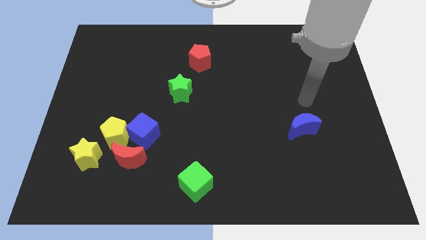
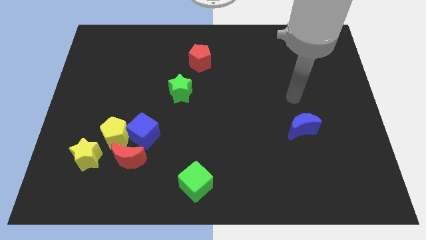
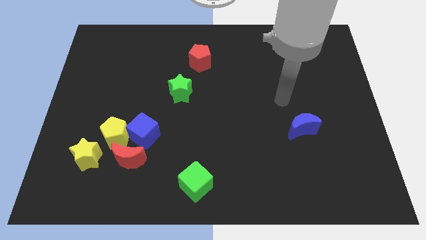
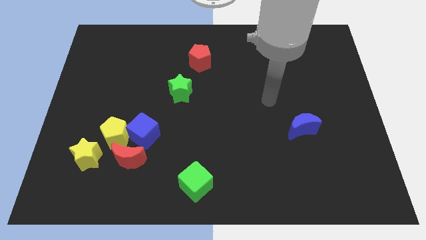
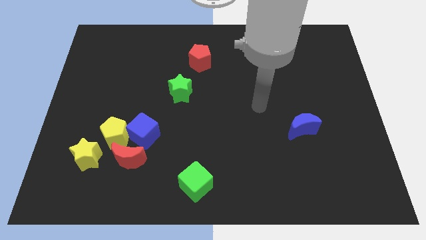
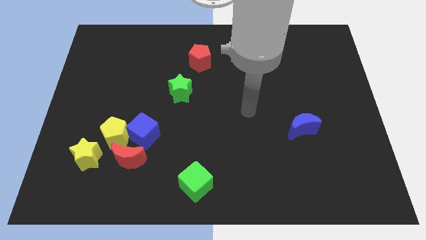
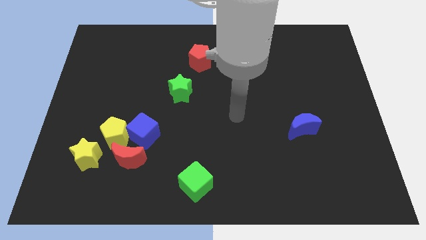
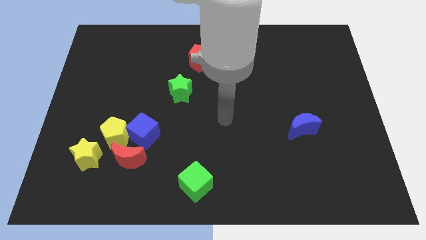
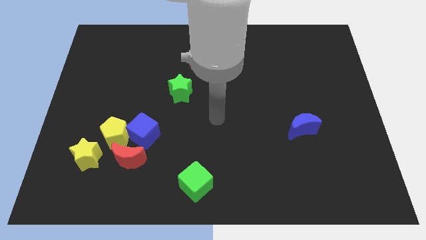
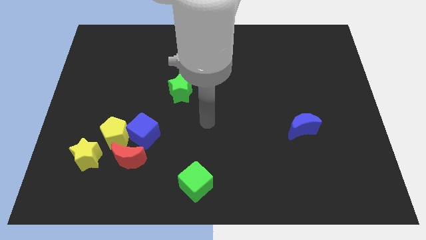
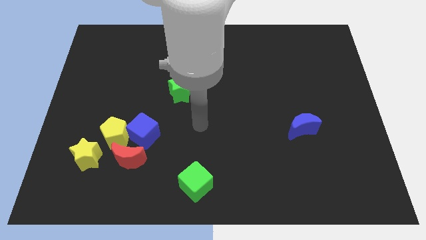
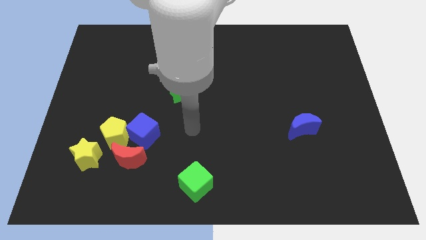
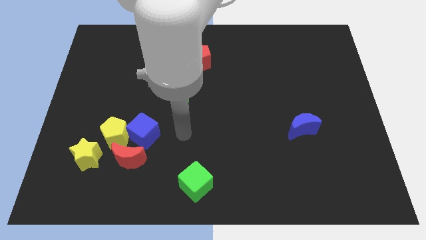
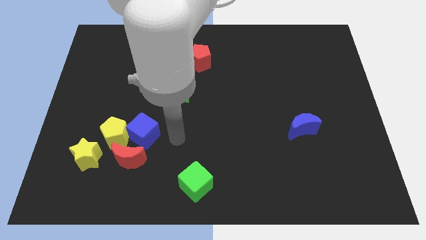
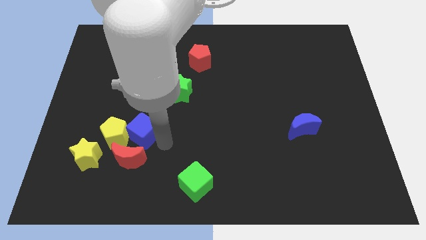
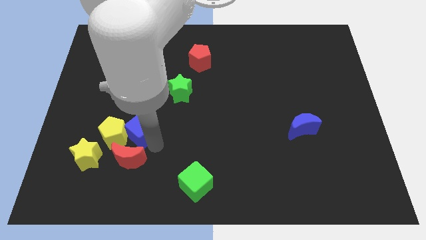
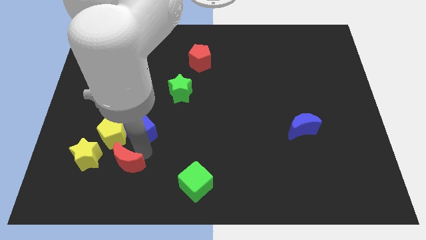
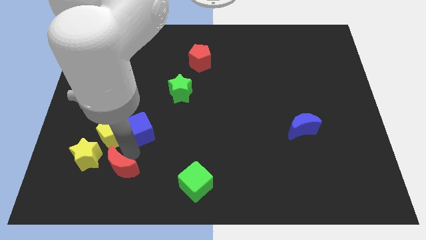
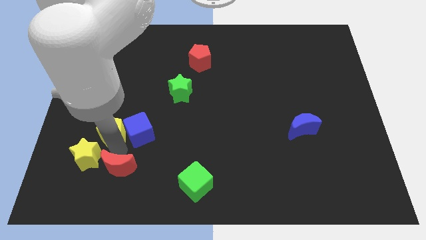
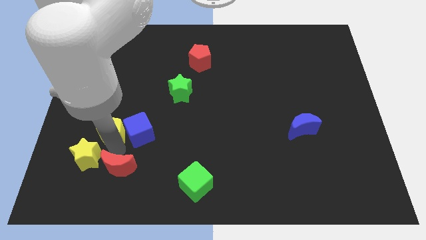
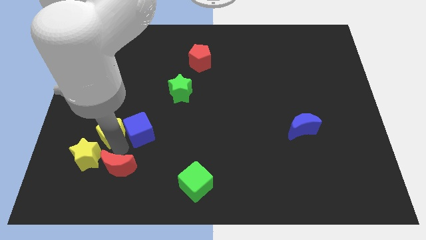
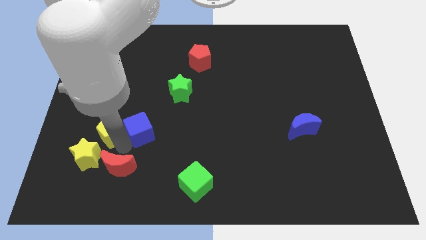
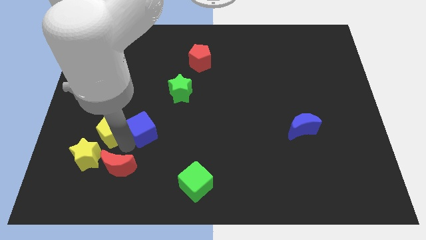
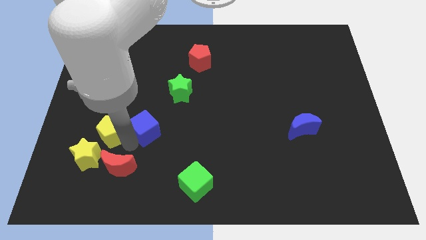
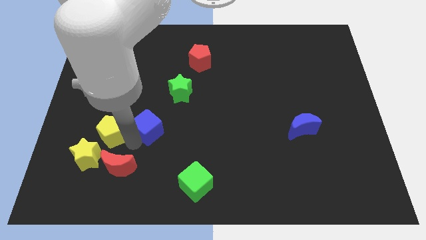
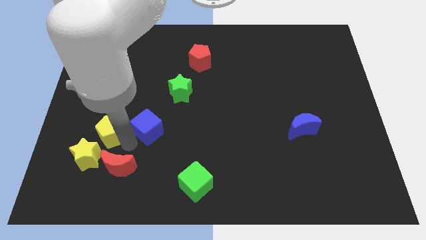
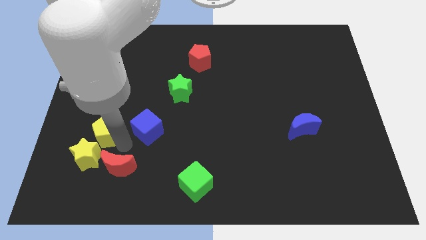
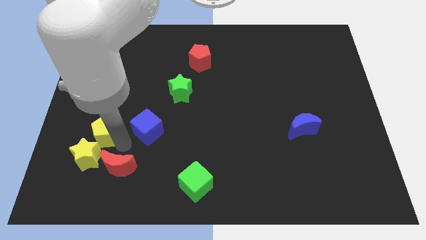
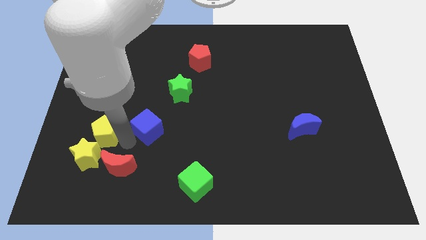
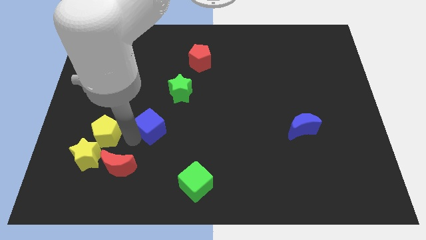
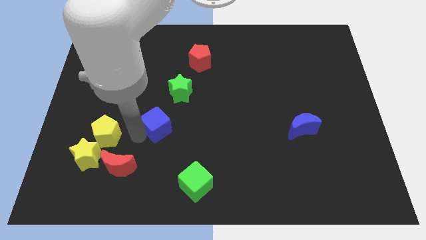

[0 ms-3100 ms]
pull the blue cube apart from the yellow pentagon and red moon

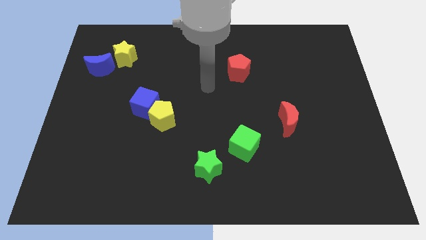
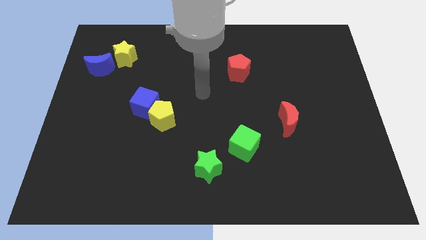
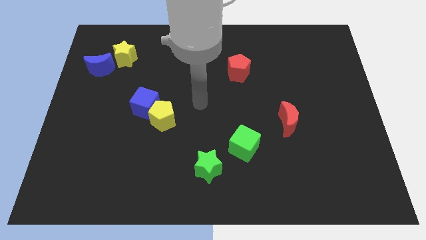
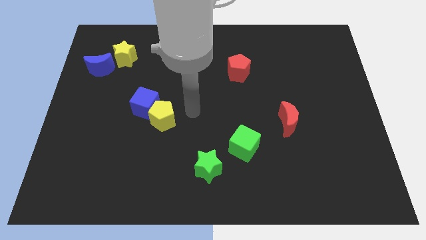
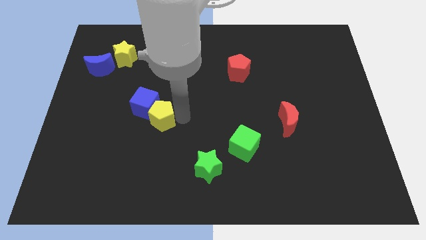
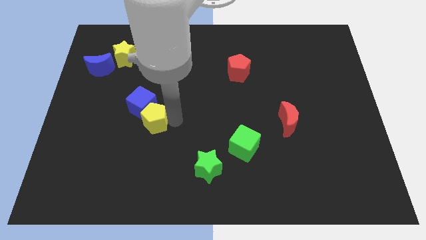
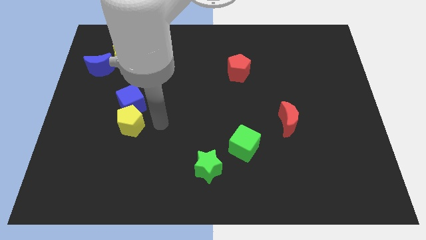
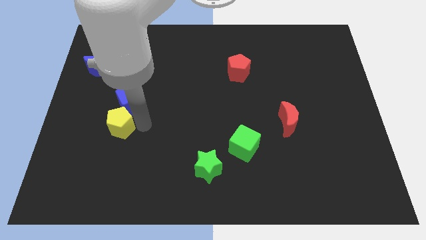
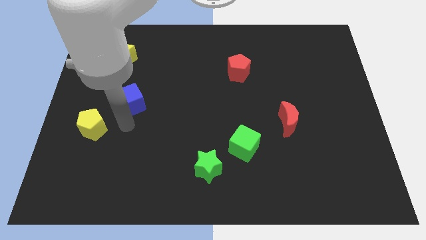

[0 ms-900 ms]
separate the blue cube from the yellow pentagon

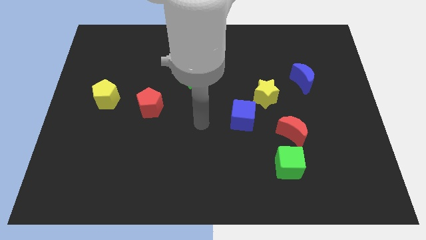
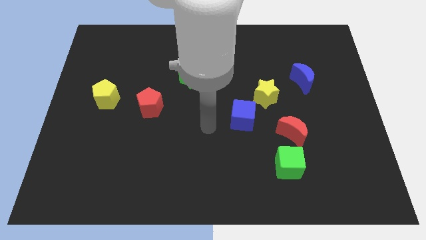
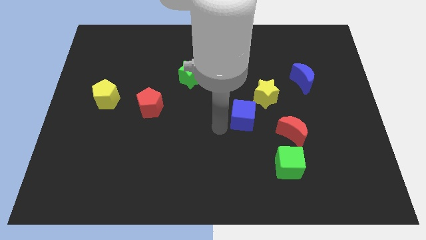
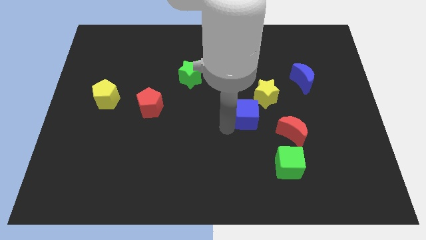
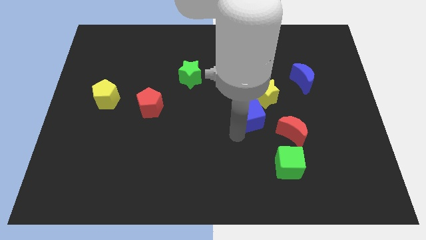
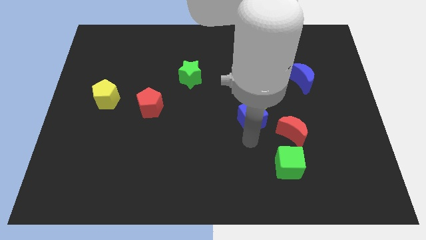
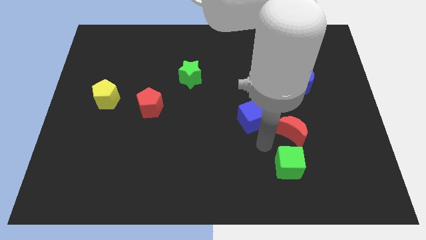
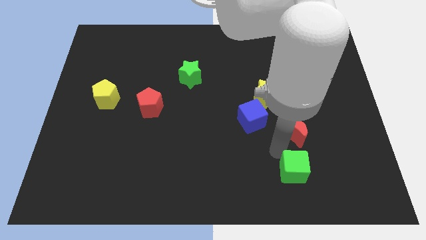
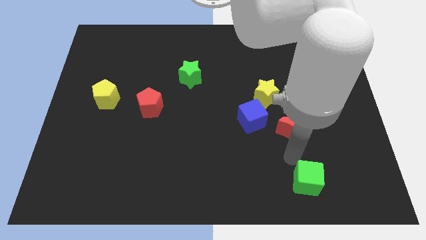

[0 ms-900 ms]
pull the red moon apart from the green cube

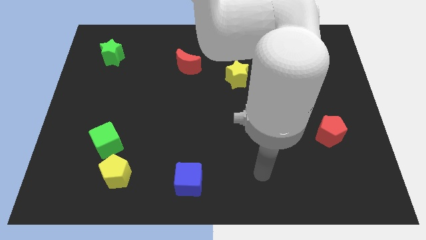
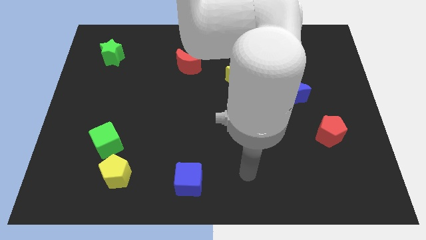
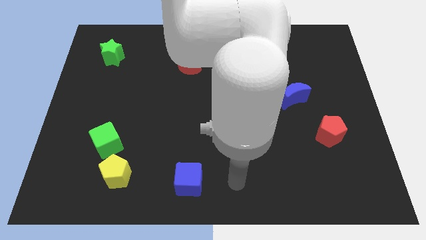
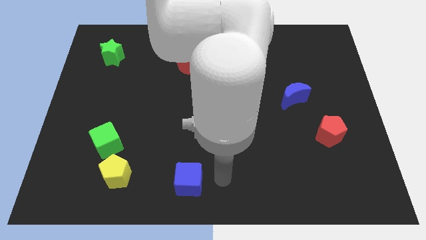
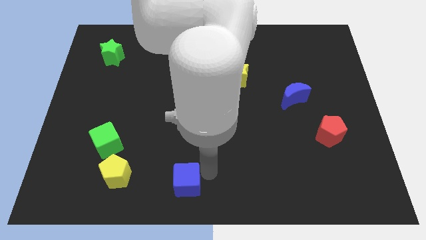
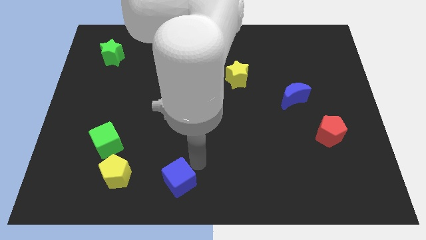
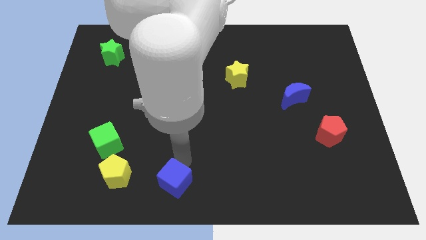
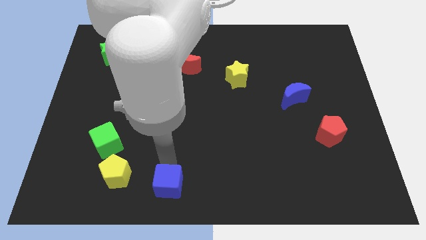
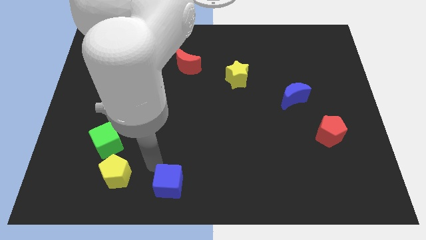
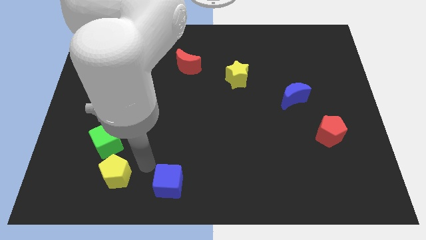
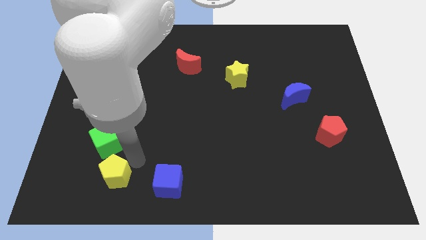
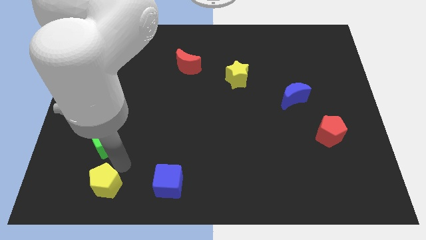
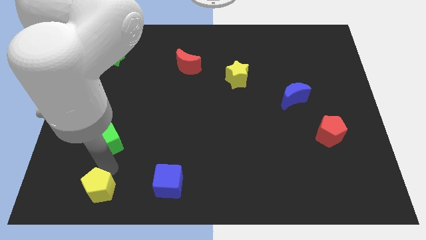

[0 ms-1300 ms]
pull the green cube apart from the yellow pentagon

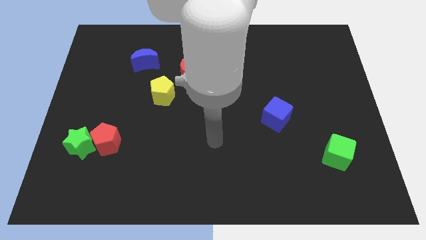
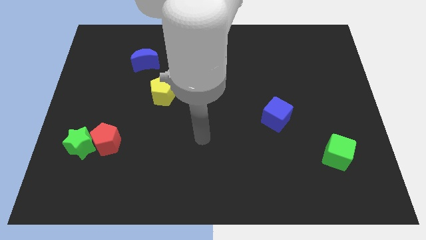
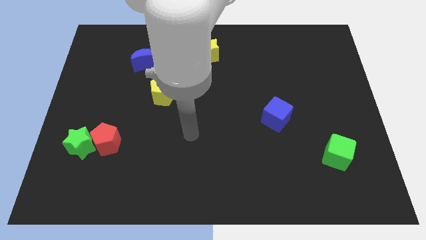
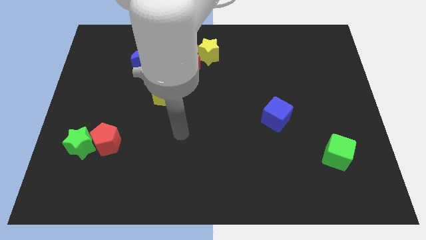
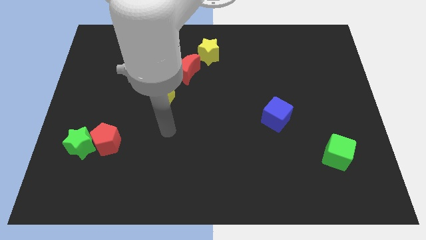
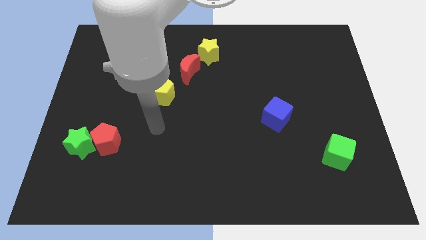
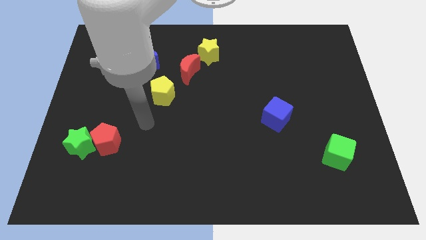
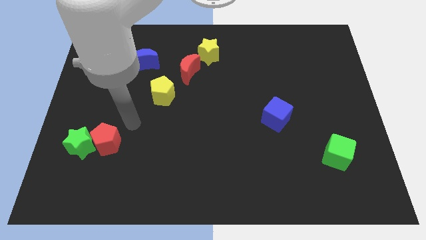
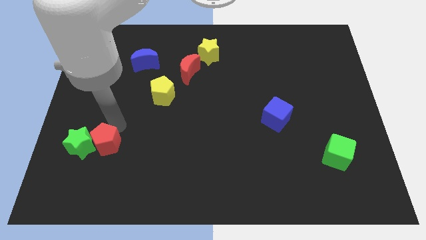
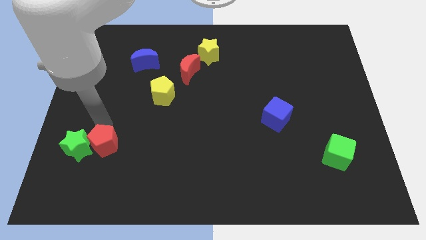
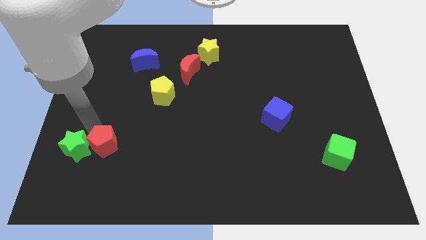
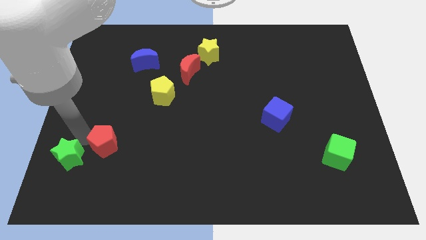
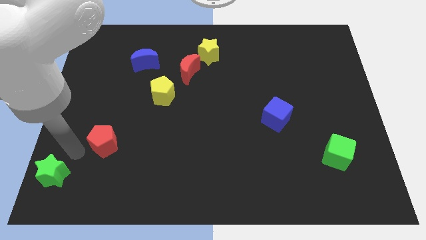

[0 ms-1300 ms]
move the red pentagon away from the green star

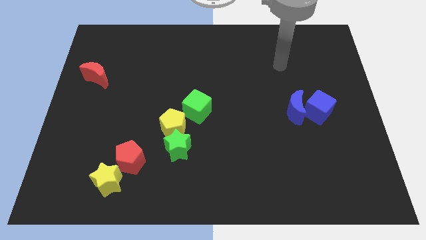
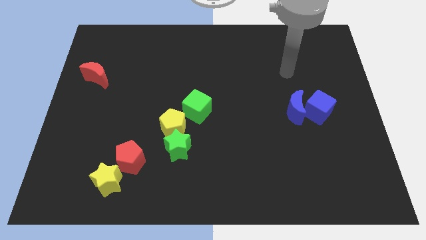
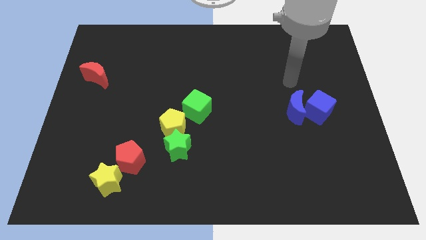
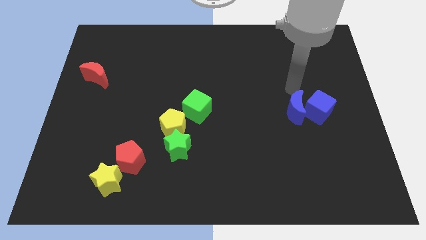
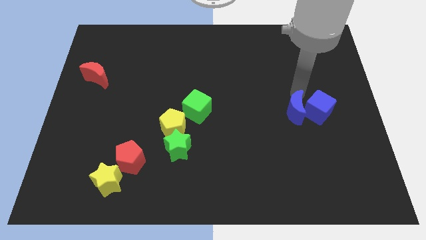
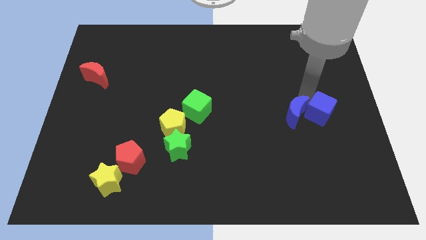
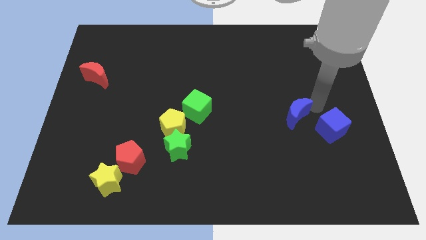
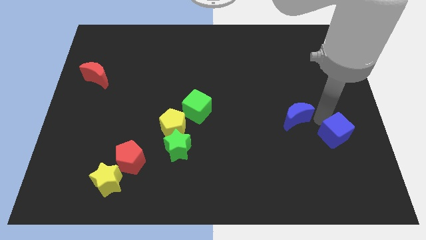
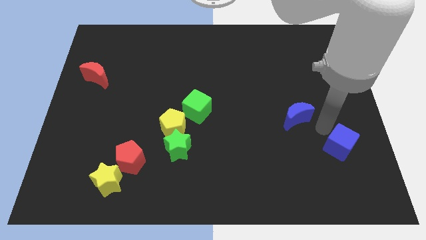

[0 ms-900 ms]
pull the blue moon apart from the blue cube

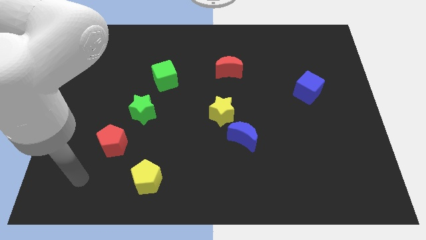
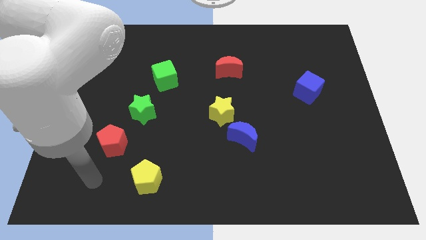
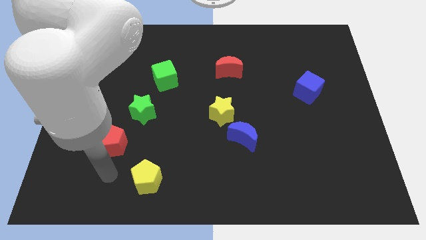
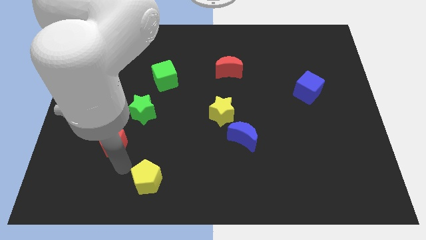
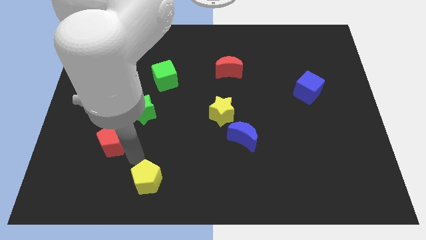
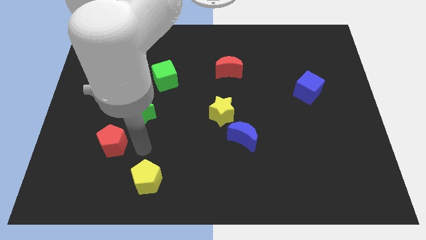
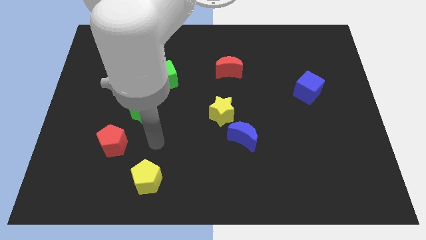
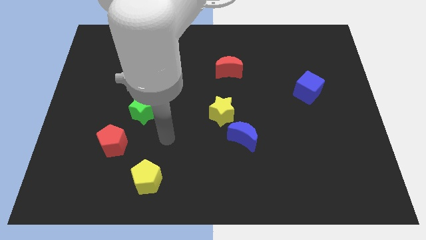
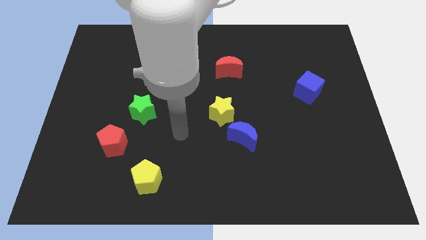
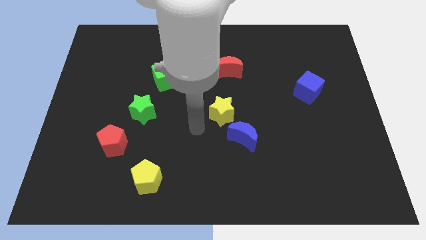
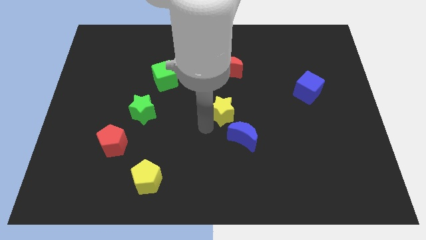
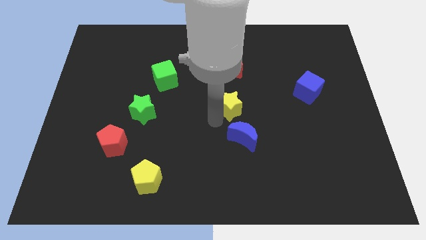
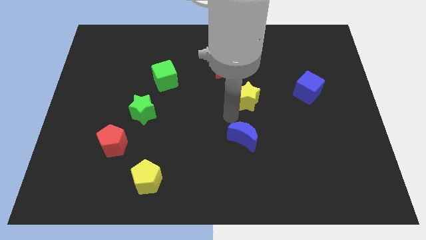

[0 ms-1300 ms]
pull the blue moon apart from the yellow star
